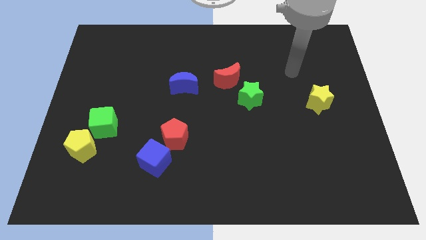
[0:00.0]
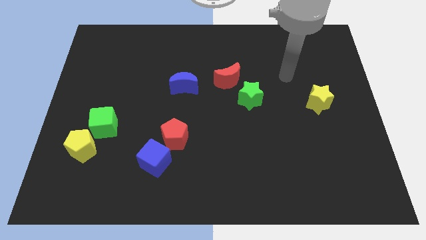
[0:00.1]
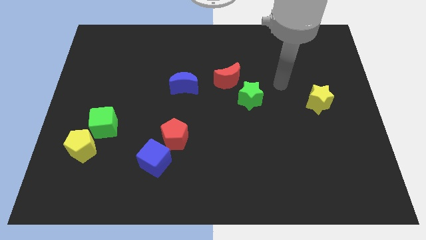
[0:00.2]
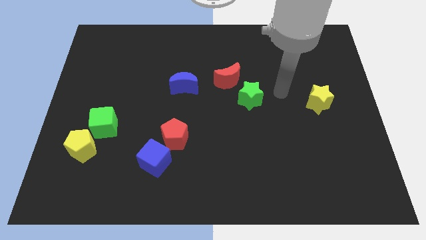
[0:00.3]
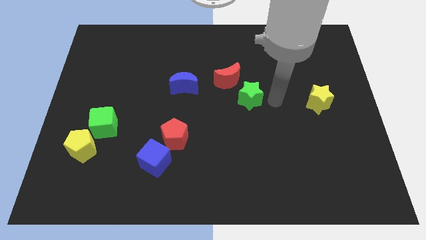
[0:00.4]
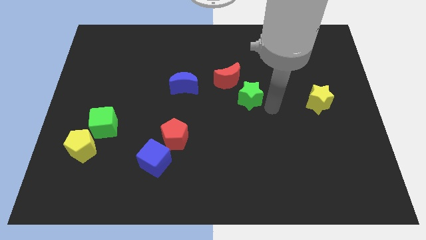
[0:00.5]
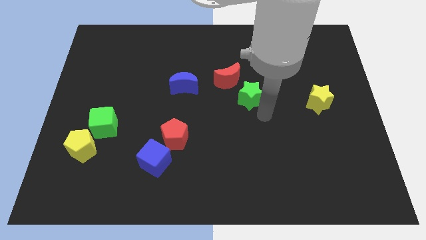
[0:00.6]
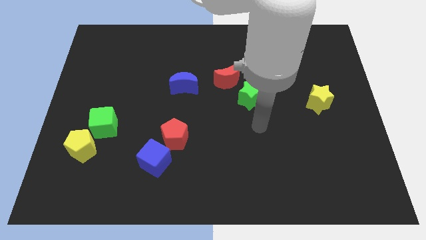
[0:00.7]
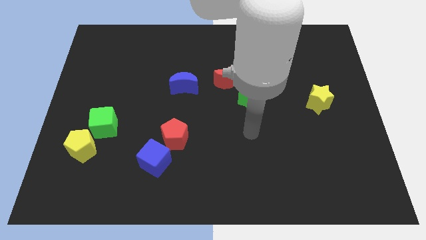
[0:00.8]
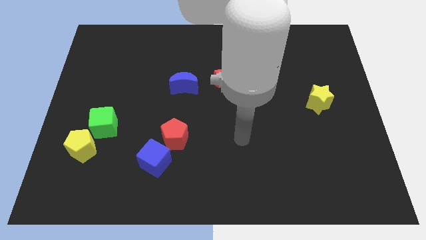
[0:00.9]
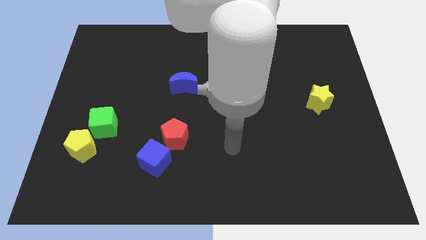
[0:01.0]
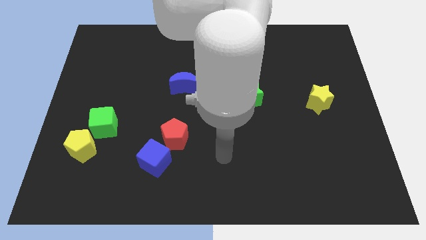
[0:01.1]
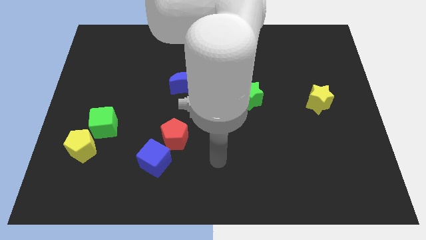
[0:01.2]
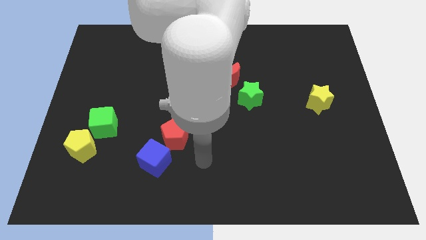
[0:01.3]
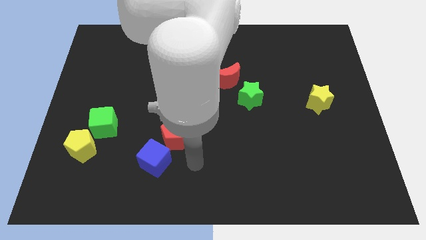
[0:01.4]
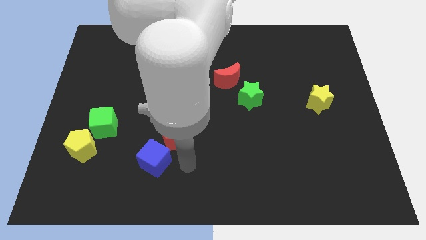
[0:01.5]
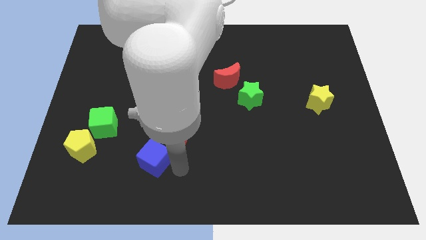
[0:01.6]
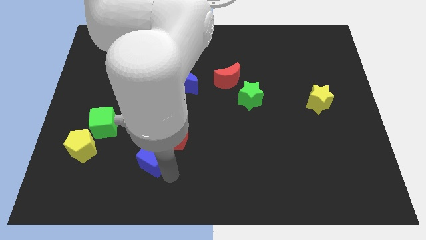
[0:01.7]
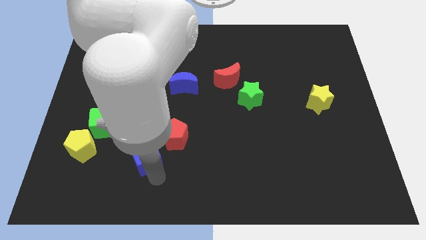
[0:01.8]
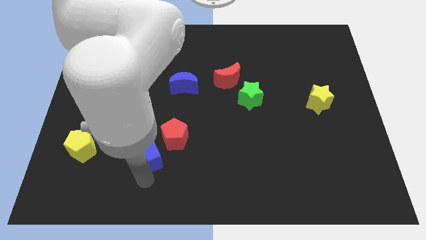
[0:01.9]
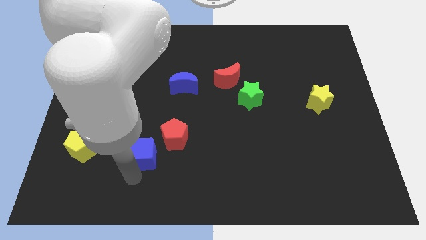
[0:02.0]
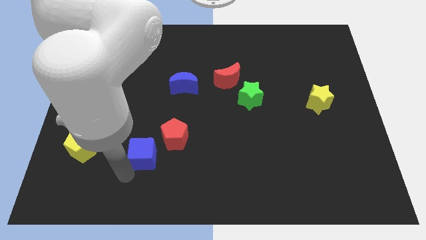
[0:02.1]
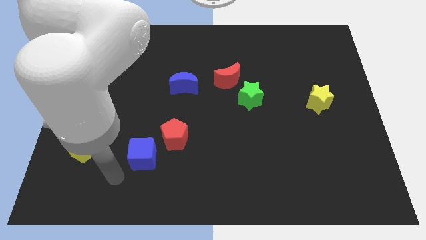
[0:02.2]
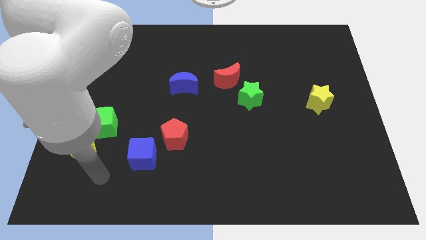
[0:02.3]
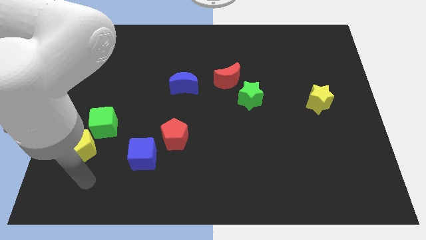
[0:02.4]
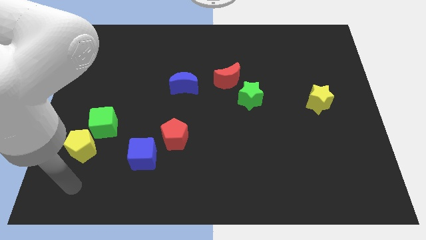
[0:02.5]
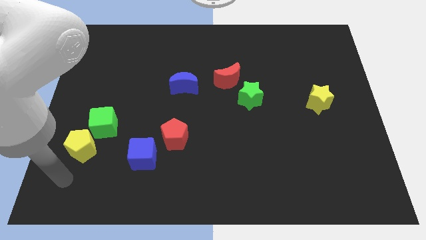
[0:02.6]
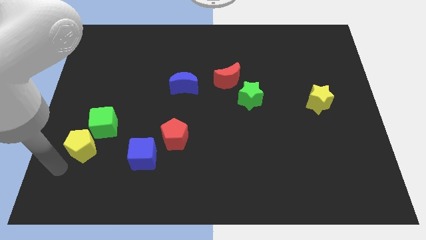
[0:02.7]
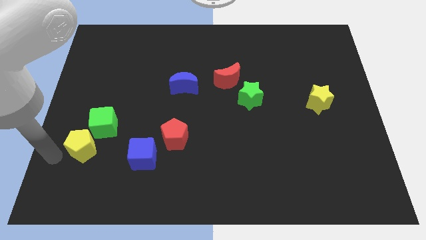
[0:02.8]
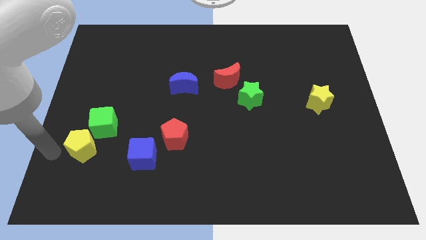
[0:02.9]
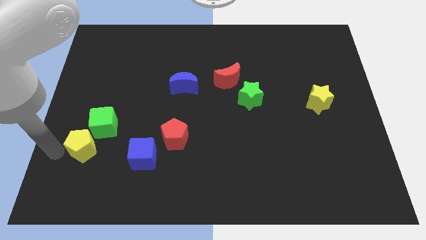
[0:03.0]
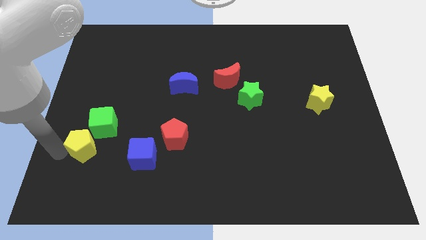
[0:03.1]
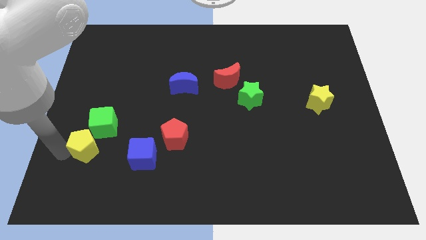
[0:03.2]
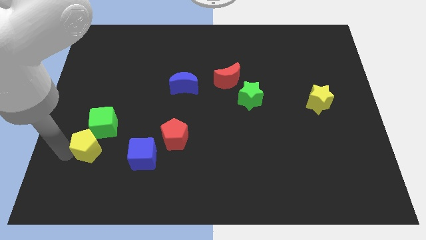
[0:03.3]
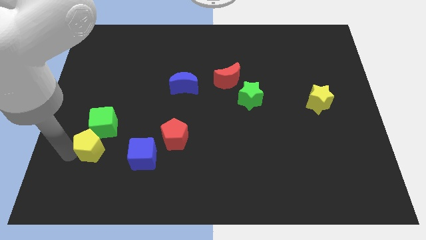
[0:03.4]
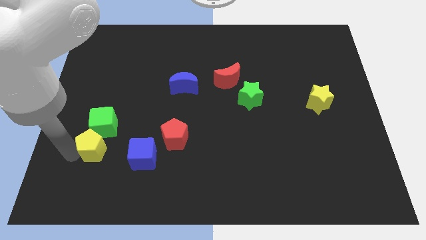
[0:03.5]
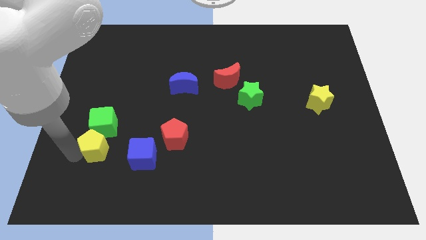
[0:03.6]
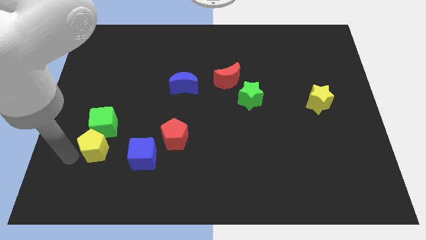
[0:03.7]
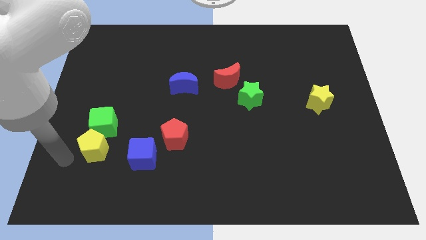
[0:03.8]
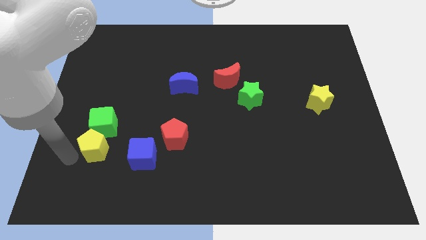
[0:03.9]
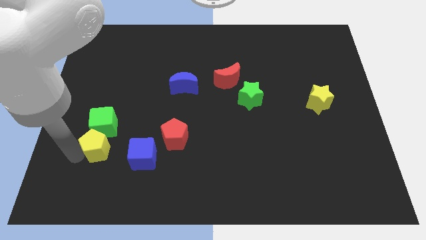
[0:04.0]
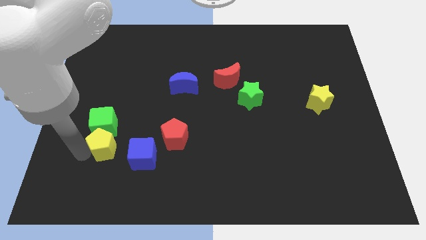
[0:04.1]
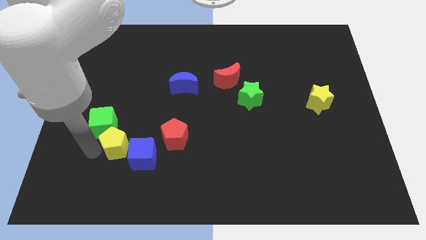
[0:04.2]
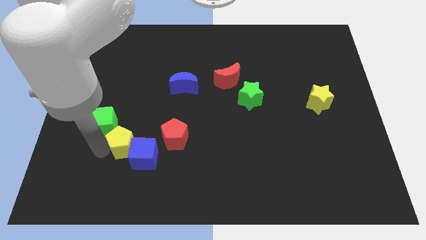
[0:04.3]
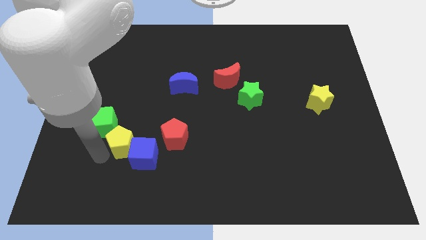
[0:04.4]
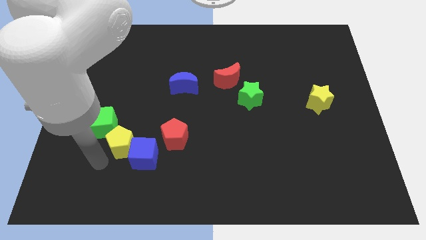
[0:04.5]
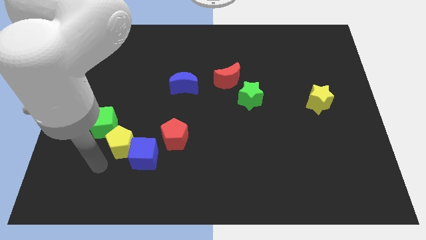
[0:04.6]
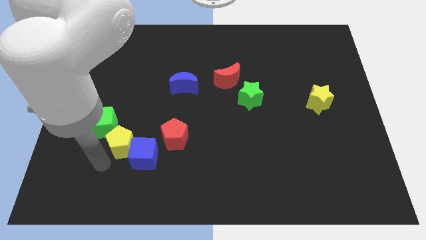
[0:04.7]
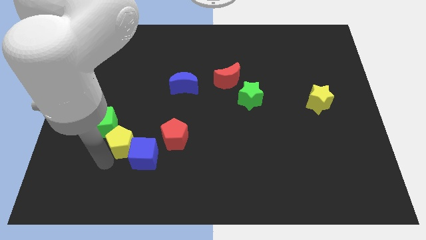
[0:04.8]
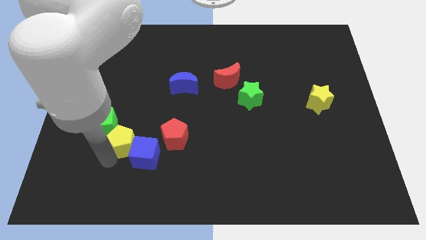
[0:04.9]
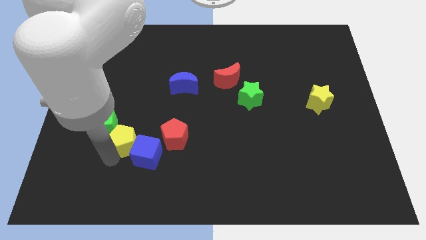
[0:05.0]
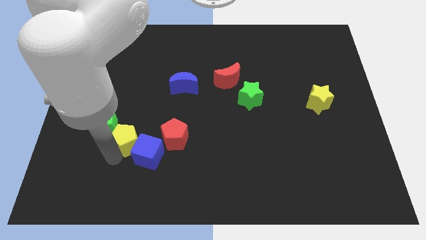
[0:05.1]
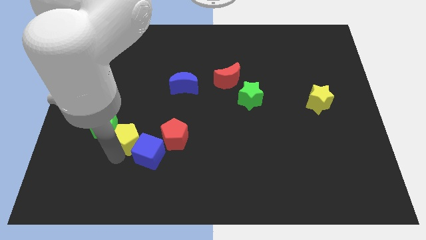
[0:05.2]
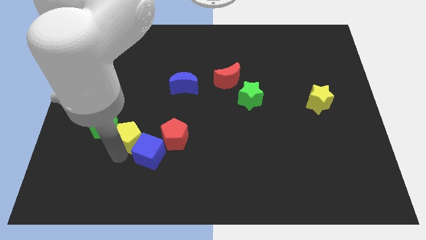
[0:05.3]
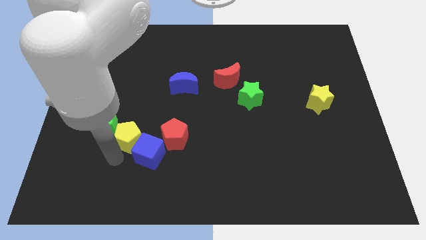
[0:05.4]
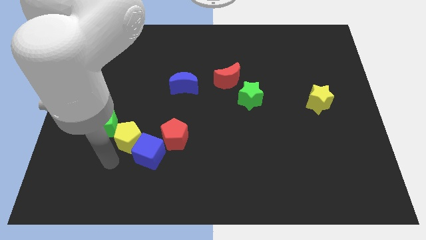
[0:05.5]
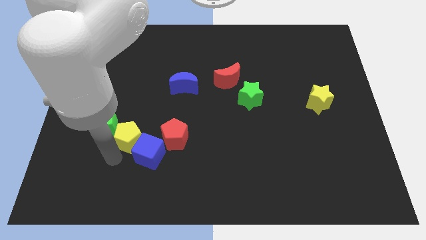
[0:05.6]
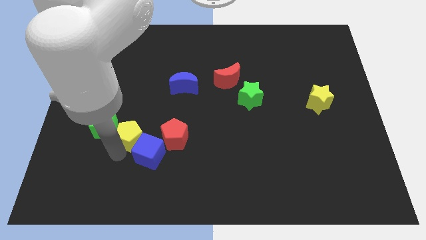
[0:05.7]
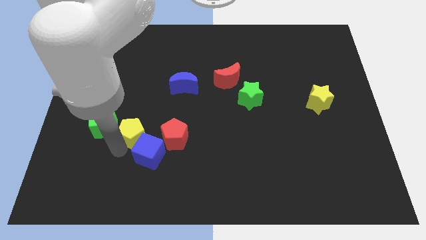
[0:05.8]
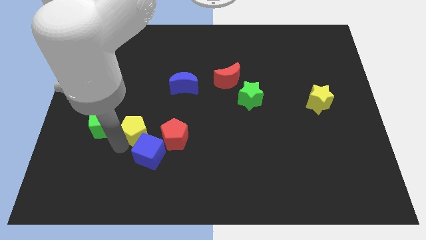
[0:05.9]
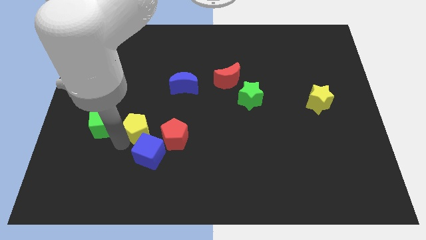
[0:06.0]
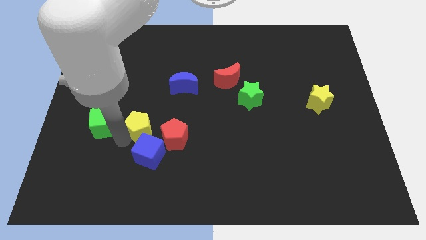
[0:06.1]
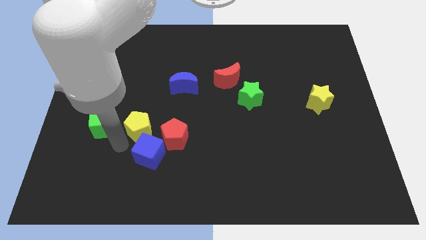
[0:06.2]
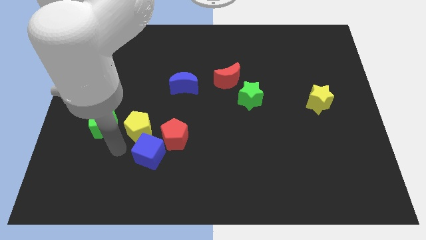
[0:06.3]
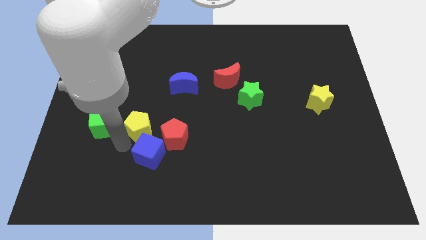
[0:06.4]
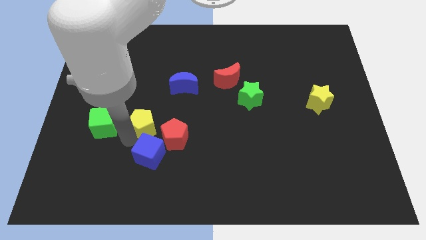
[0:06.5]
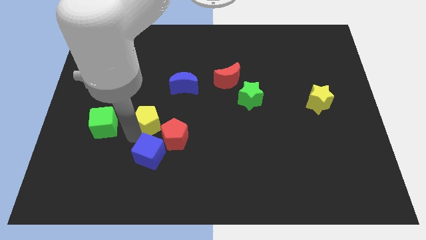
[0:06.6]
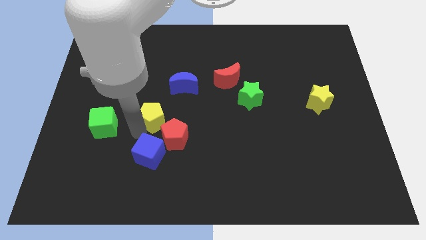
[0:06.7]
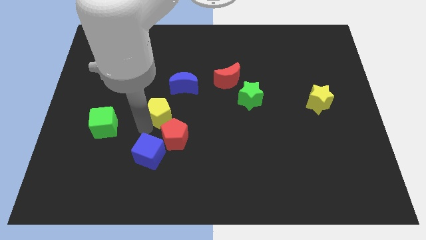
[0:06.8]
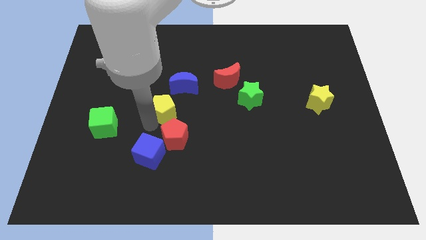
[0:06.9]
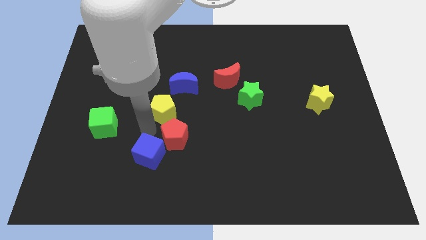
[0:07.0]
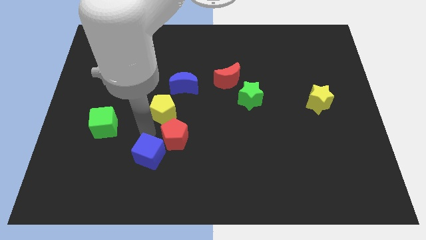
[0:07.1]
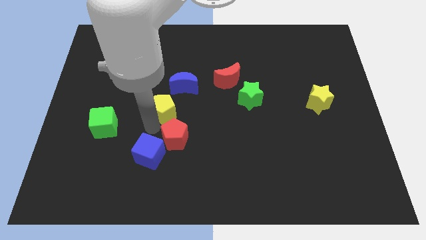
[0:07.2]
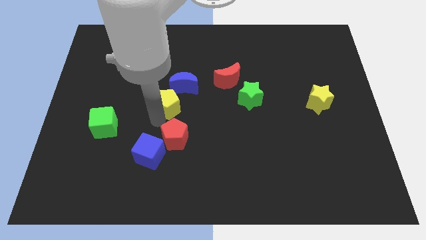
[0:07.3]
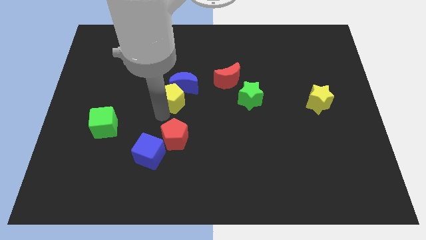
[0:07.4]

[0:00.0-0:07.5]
slide the yellow pentagon close to the blue moon
